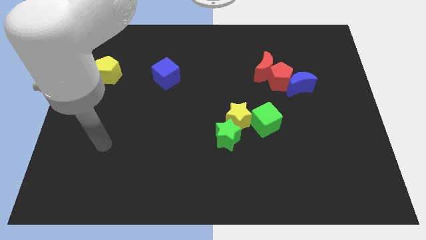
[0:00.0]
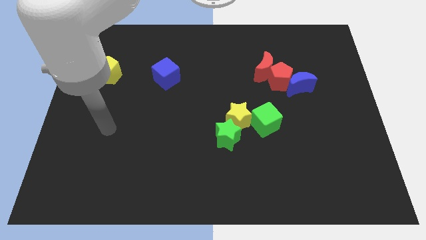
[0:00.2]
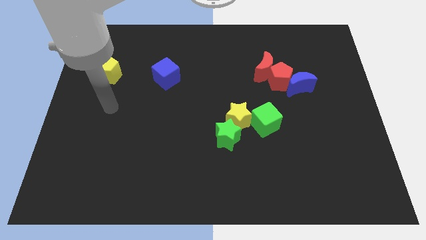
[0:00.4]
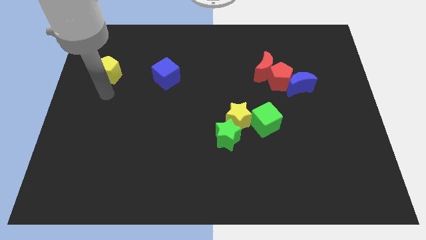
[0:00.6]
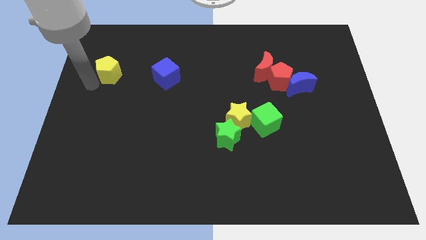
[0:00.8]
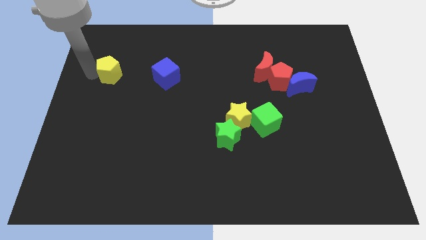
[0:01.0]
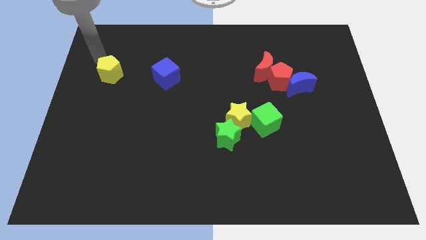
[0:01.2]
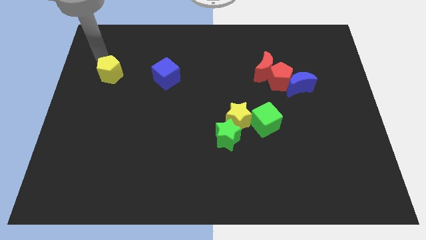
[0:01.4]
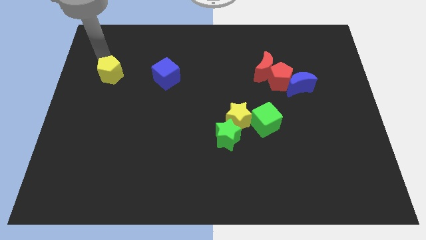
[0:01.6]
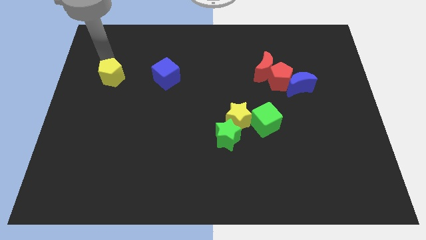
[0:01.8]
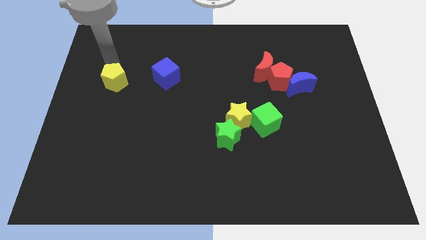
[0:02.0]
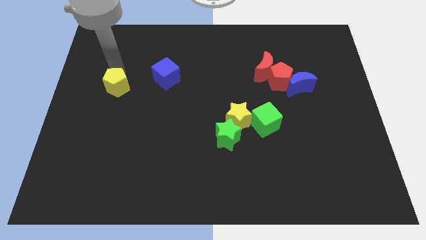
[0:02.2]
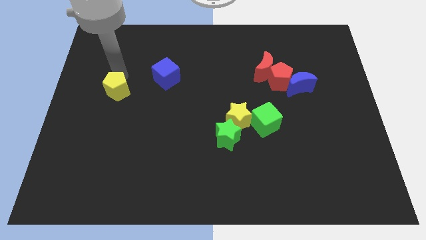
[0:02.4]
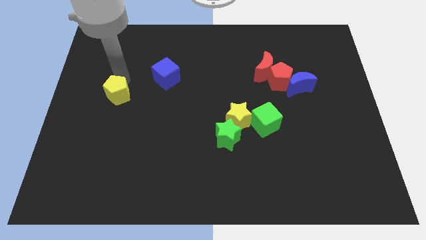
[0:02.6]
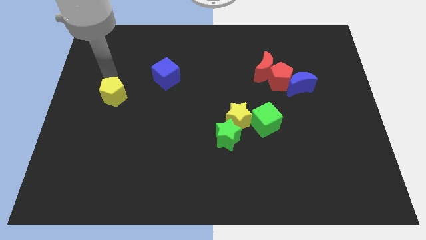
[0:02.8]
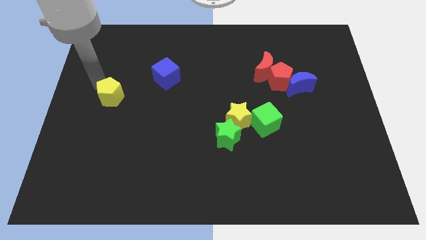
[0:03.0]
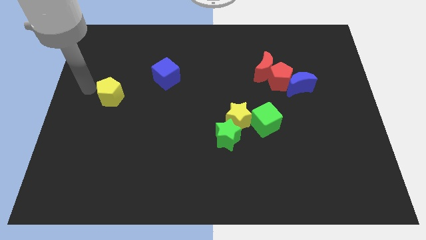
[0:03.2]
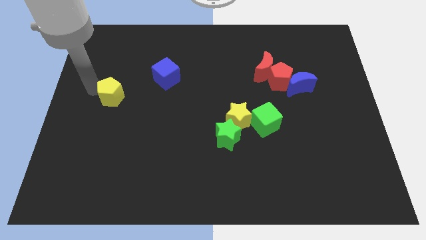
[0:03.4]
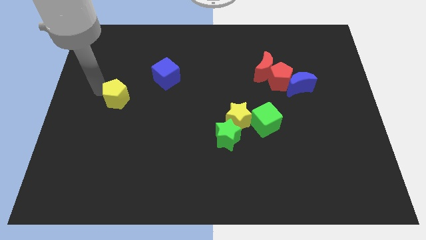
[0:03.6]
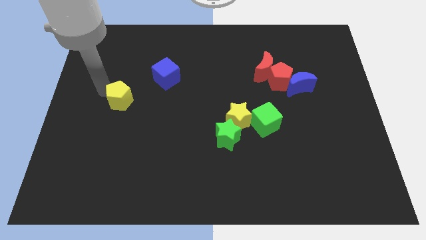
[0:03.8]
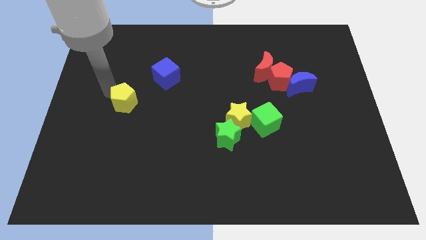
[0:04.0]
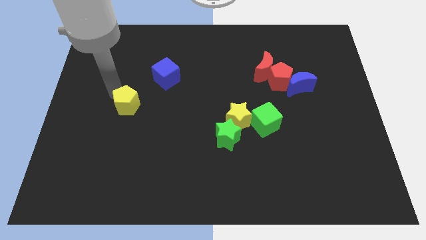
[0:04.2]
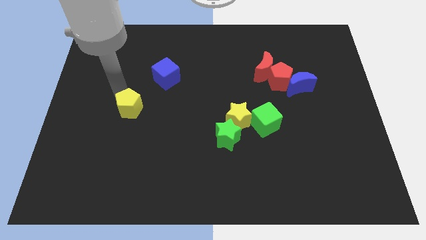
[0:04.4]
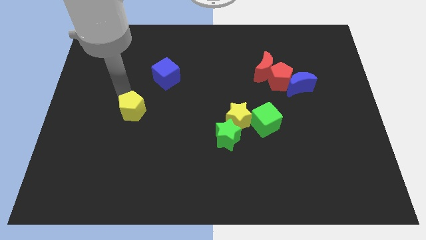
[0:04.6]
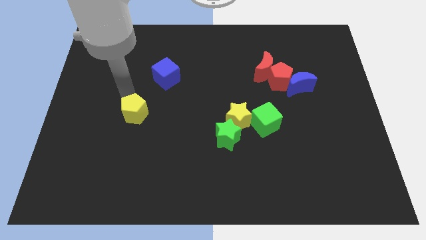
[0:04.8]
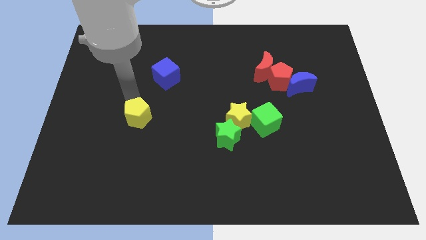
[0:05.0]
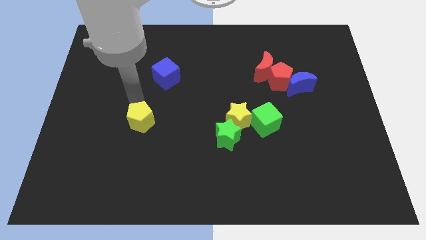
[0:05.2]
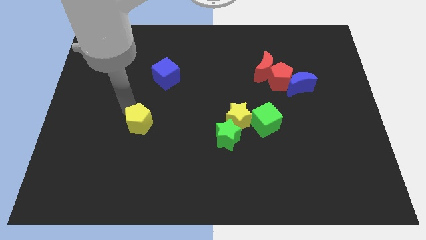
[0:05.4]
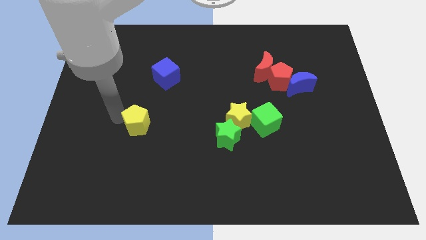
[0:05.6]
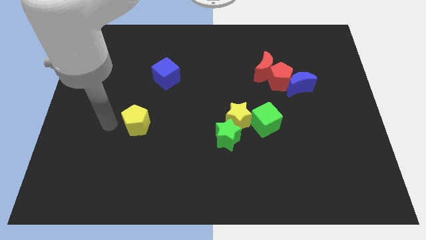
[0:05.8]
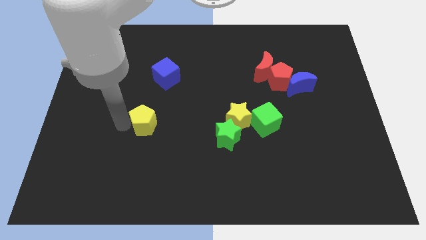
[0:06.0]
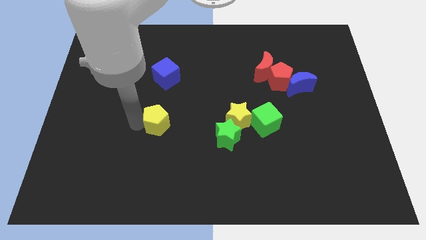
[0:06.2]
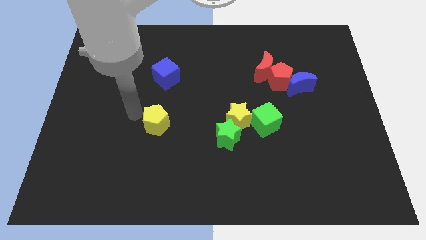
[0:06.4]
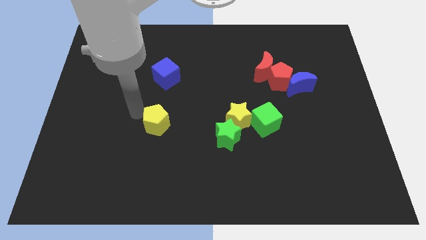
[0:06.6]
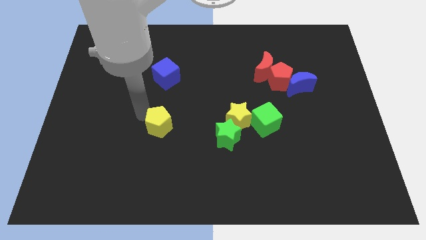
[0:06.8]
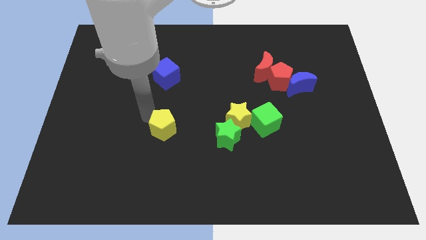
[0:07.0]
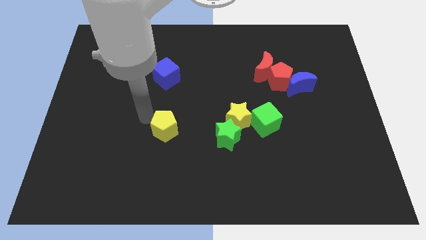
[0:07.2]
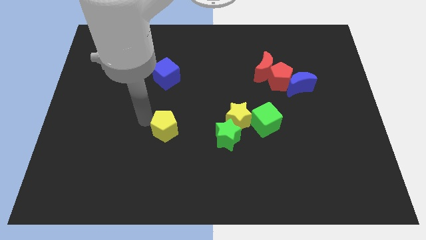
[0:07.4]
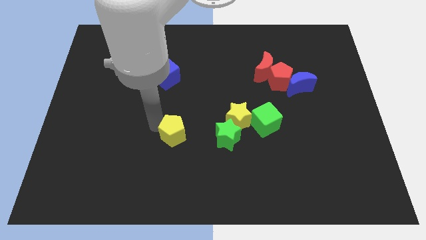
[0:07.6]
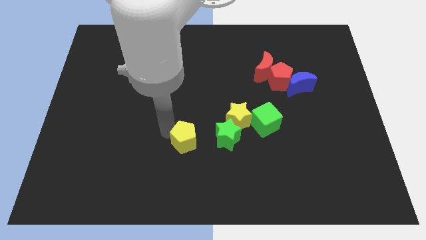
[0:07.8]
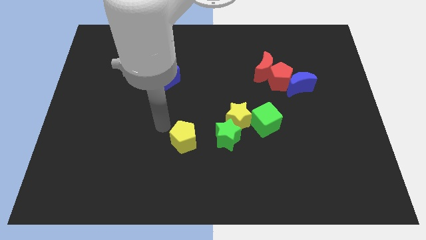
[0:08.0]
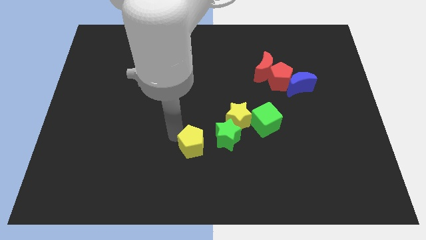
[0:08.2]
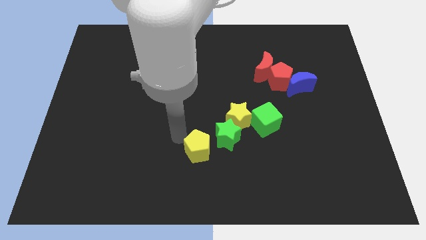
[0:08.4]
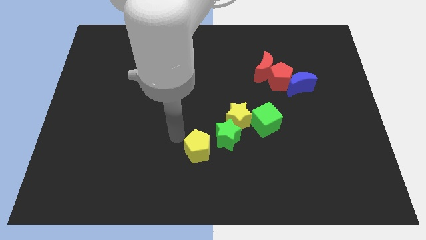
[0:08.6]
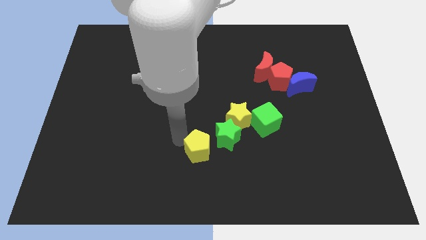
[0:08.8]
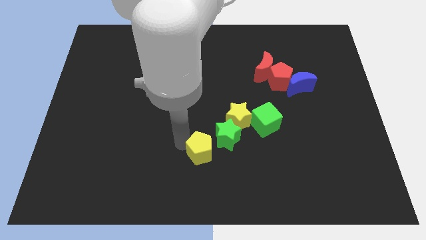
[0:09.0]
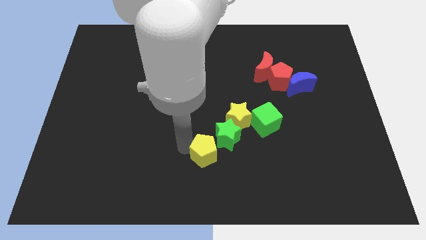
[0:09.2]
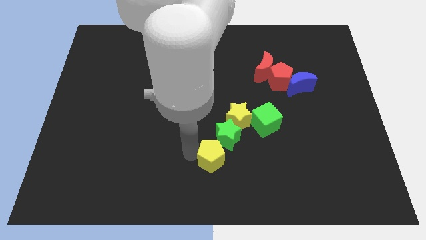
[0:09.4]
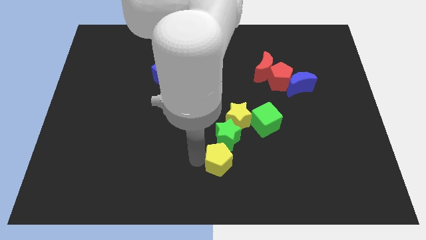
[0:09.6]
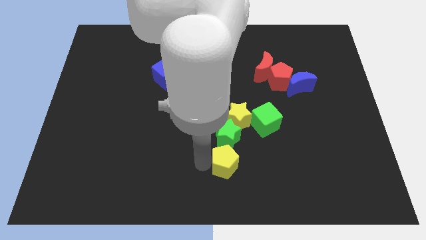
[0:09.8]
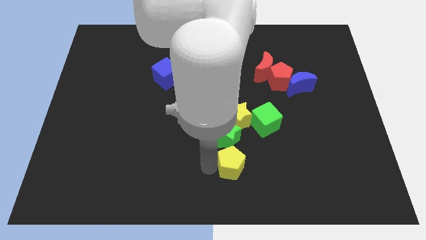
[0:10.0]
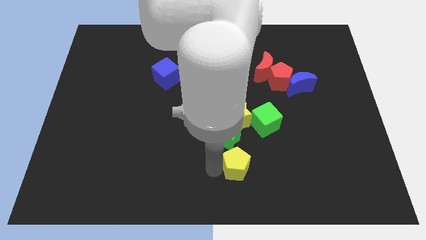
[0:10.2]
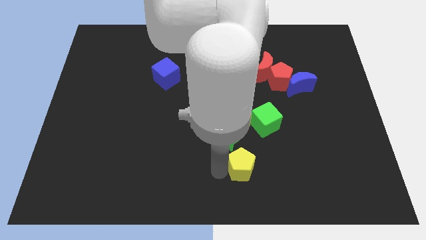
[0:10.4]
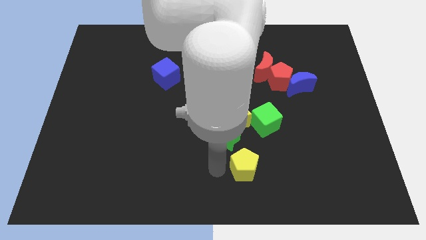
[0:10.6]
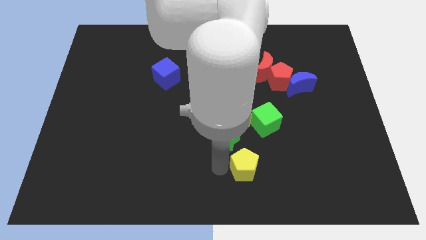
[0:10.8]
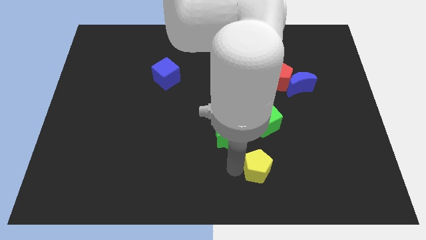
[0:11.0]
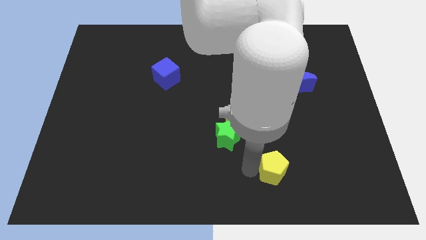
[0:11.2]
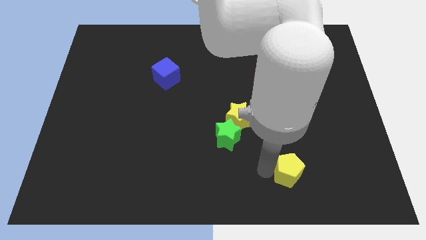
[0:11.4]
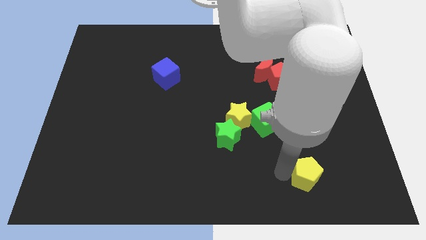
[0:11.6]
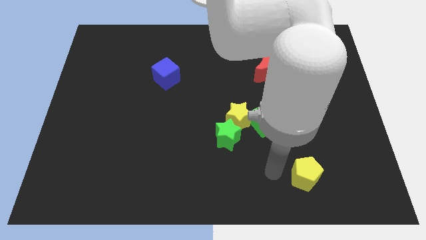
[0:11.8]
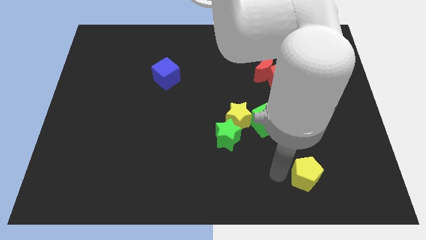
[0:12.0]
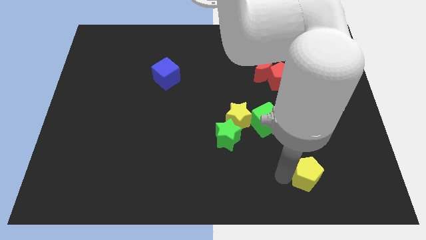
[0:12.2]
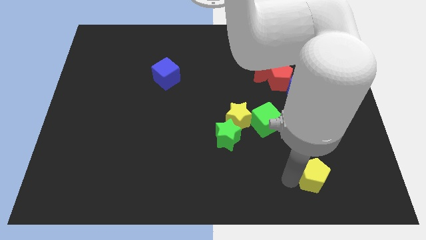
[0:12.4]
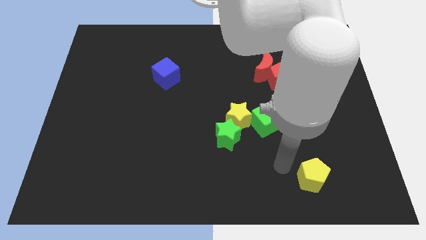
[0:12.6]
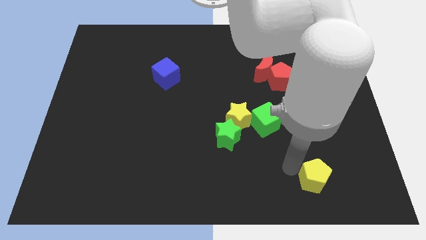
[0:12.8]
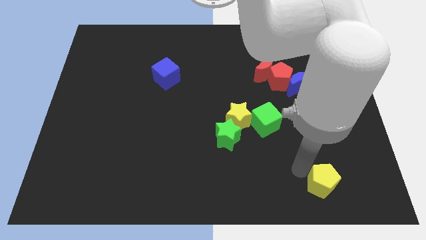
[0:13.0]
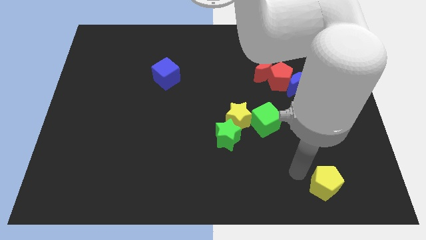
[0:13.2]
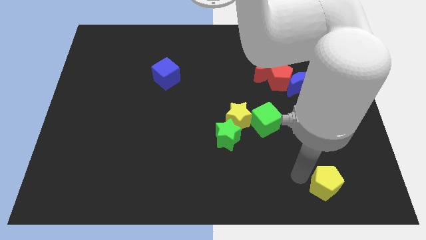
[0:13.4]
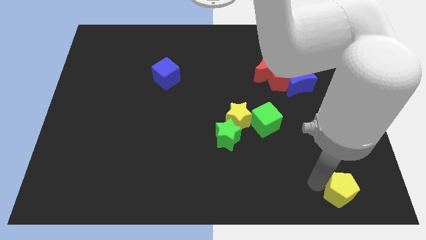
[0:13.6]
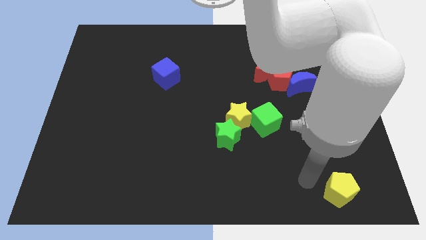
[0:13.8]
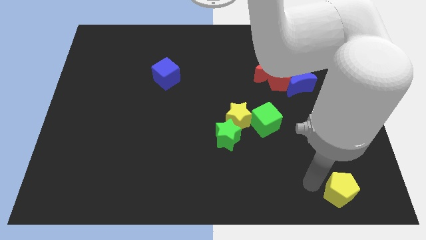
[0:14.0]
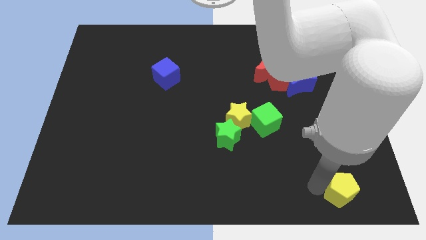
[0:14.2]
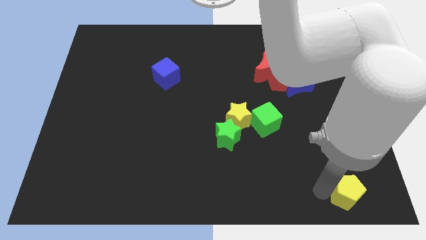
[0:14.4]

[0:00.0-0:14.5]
push the yellow pentagon to the lower right corner
